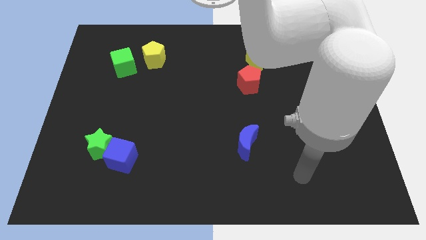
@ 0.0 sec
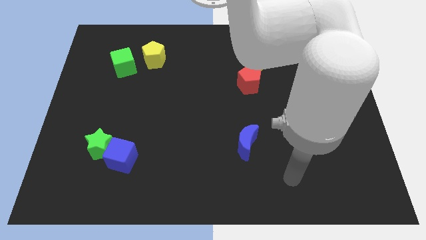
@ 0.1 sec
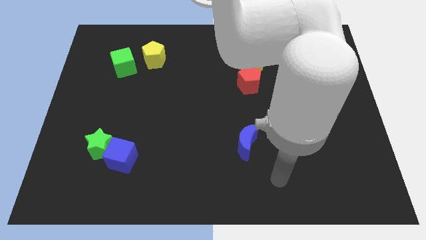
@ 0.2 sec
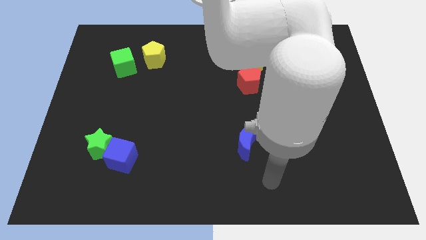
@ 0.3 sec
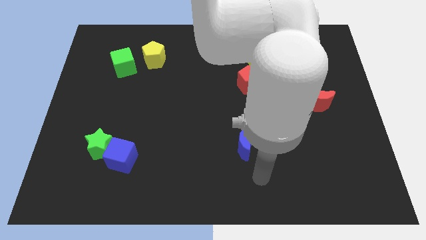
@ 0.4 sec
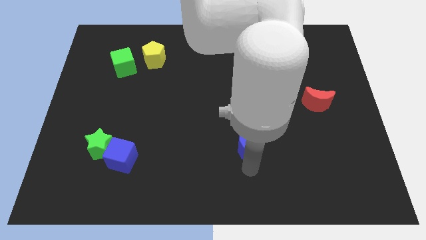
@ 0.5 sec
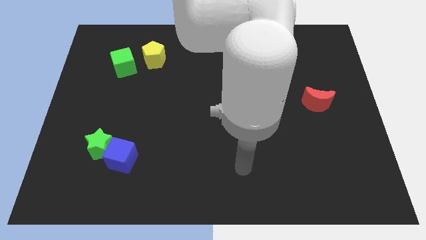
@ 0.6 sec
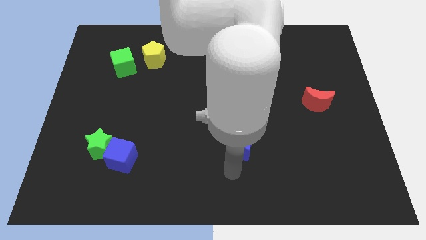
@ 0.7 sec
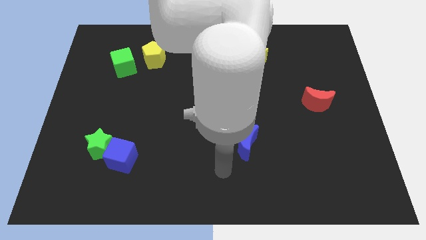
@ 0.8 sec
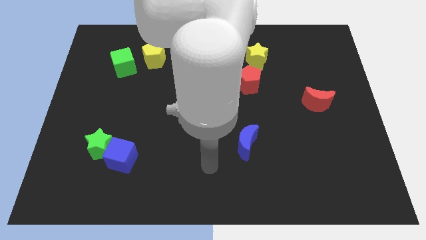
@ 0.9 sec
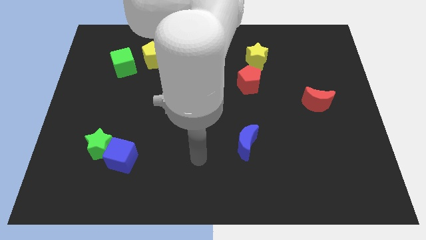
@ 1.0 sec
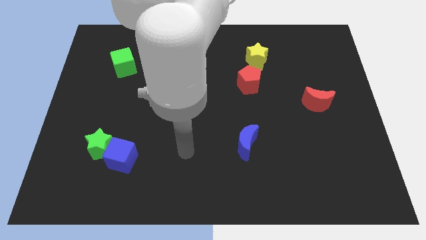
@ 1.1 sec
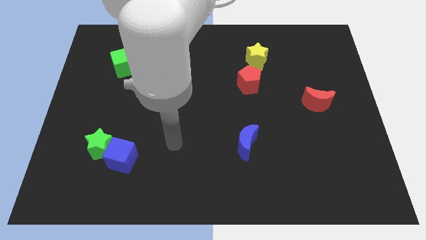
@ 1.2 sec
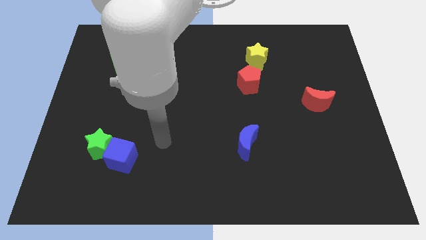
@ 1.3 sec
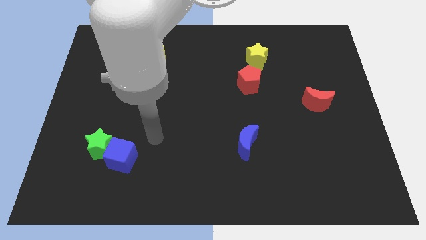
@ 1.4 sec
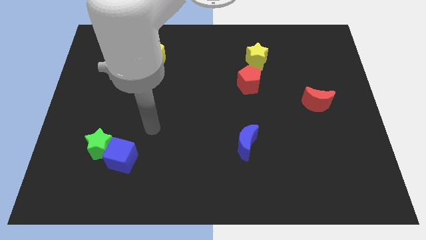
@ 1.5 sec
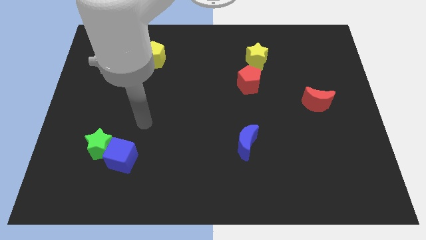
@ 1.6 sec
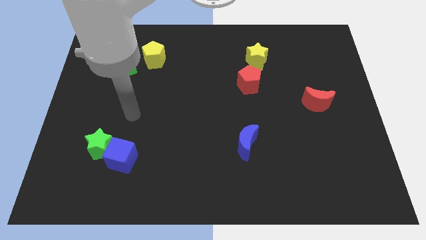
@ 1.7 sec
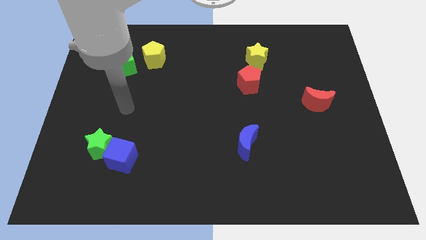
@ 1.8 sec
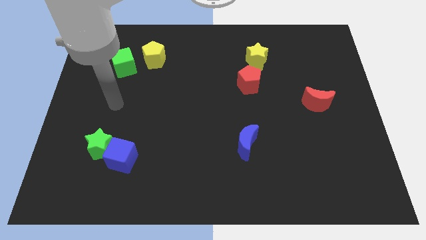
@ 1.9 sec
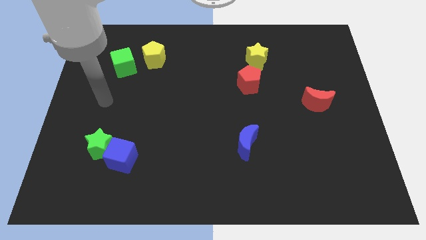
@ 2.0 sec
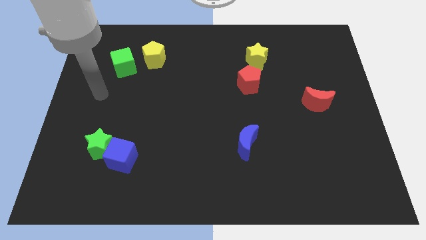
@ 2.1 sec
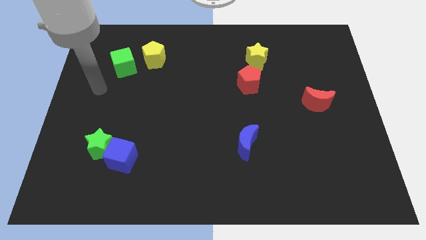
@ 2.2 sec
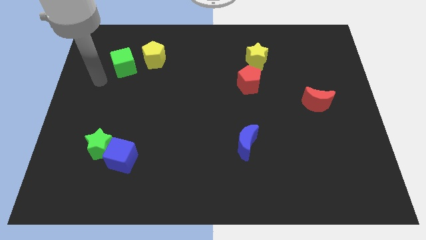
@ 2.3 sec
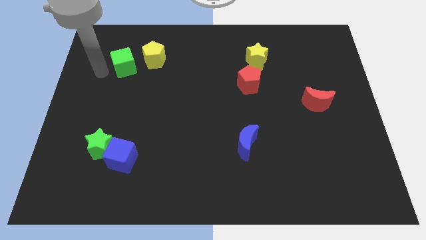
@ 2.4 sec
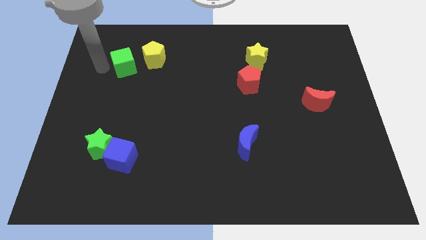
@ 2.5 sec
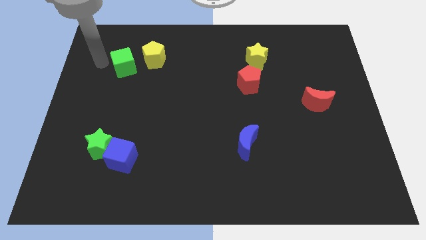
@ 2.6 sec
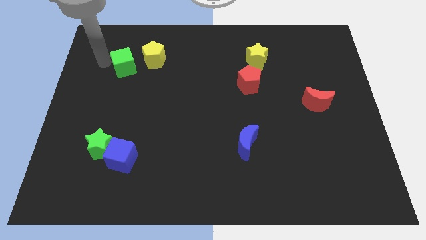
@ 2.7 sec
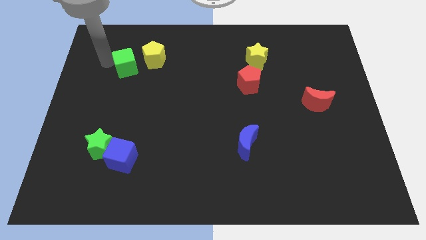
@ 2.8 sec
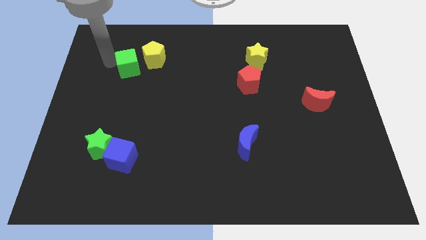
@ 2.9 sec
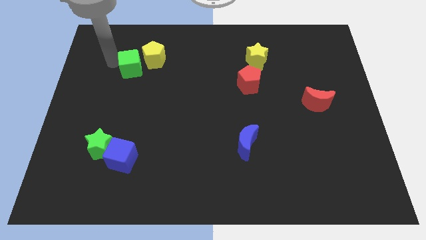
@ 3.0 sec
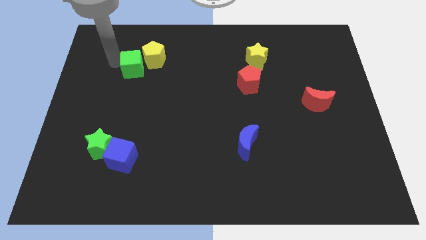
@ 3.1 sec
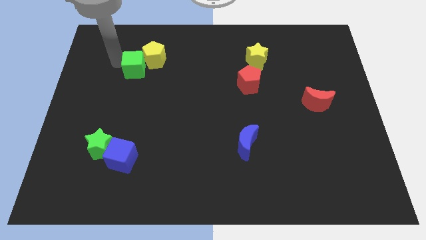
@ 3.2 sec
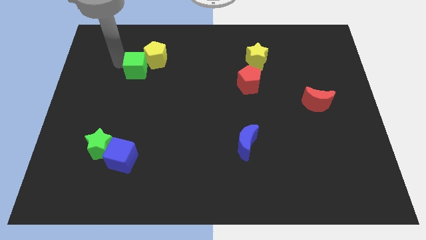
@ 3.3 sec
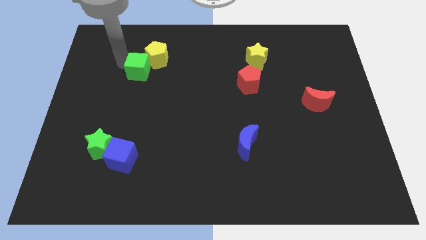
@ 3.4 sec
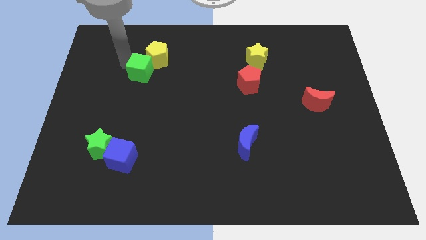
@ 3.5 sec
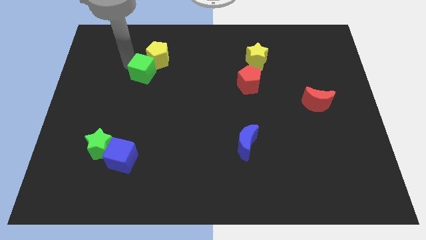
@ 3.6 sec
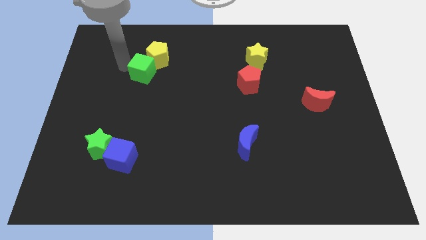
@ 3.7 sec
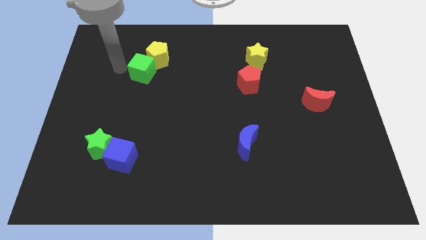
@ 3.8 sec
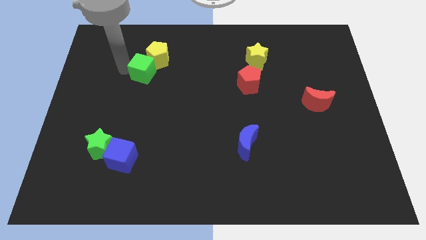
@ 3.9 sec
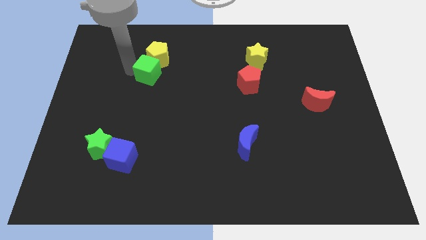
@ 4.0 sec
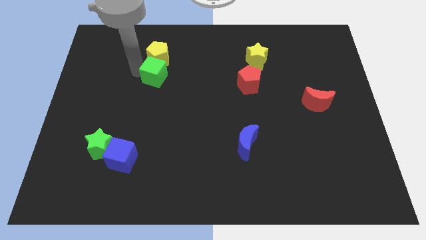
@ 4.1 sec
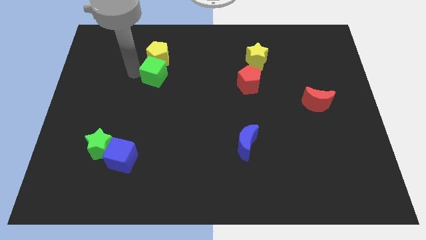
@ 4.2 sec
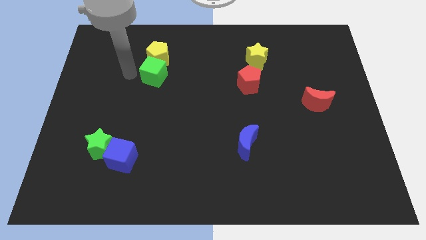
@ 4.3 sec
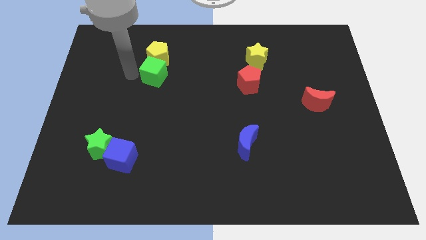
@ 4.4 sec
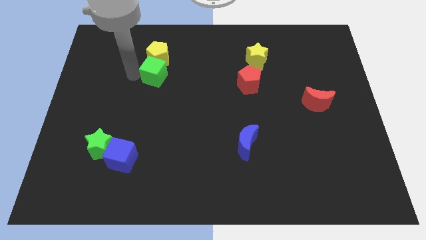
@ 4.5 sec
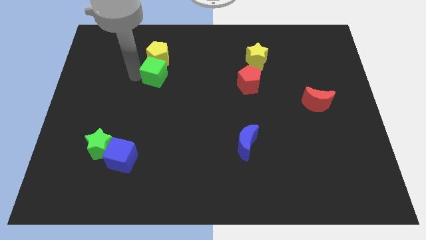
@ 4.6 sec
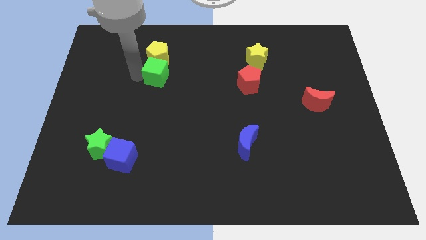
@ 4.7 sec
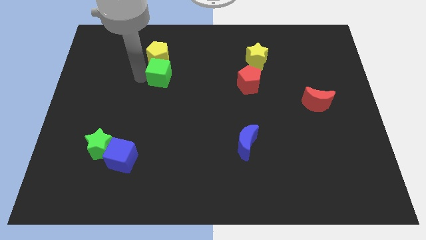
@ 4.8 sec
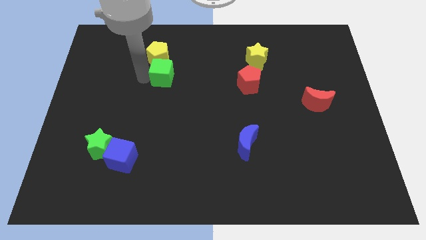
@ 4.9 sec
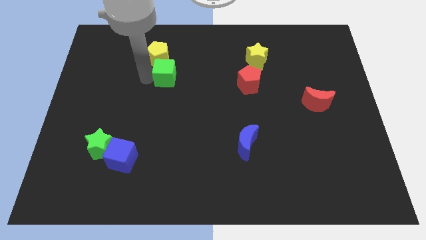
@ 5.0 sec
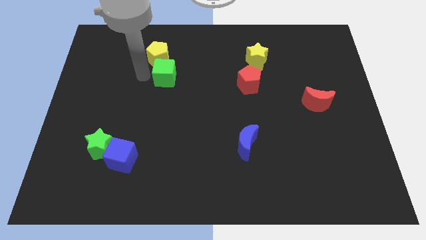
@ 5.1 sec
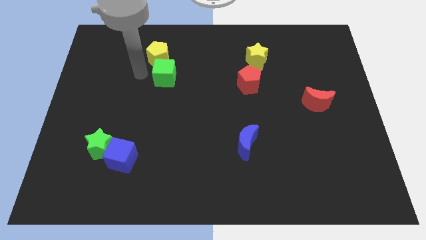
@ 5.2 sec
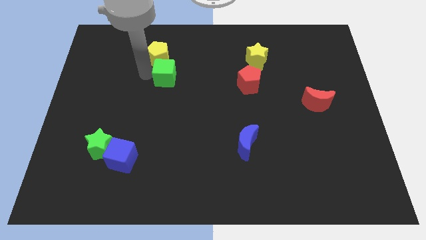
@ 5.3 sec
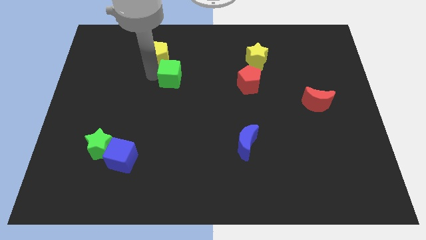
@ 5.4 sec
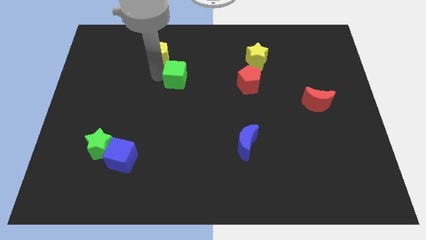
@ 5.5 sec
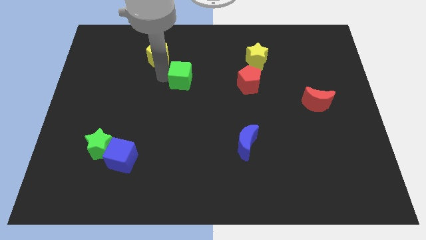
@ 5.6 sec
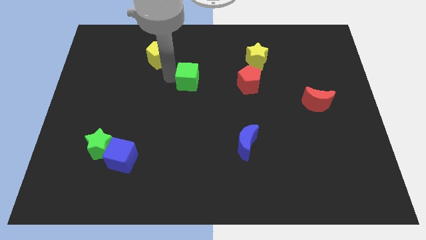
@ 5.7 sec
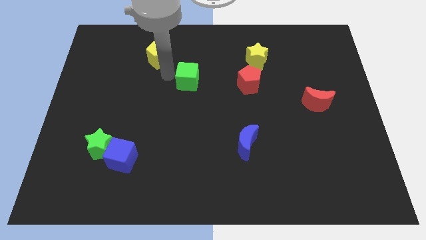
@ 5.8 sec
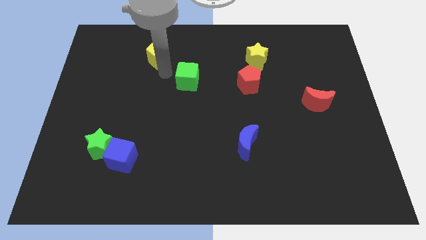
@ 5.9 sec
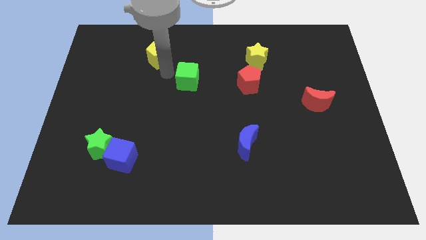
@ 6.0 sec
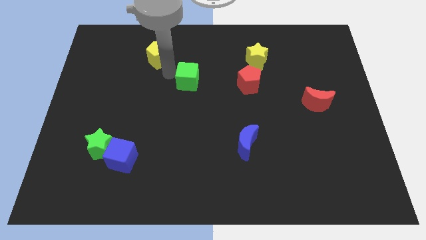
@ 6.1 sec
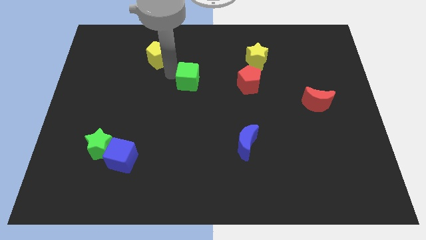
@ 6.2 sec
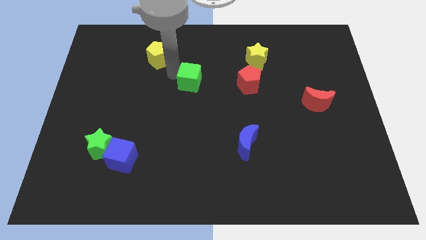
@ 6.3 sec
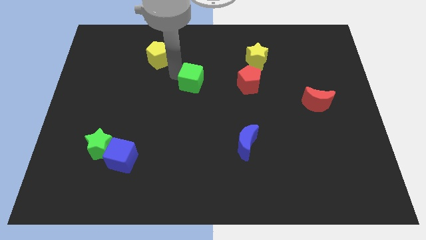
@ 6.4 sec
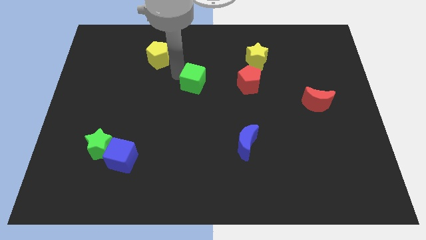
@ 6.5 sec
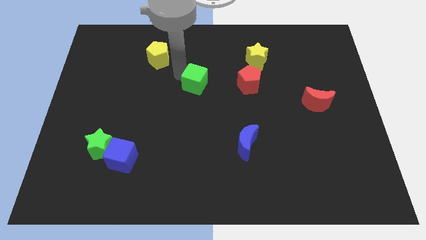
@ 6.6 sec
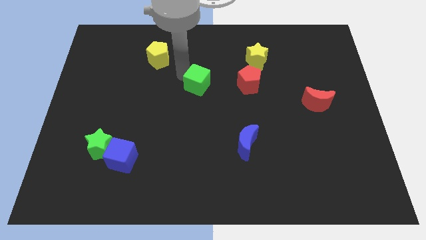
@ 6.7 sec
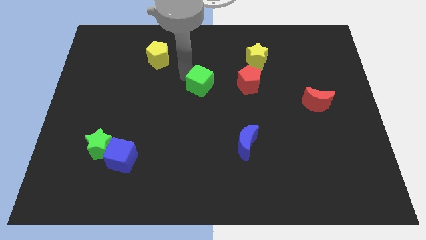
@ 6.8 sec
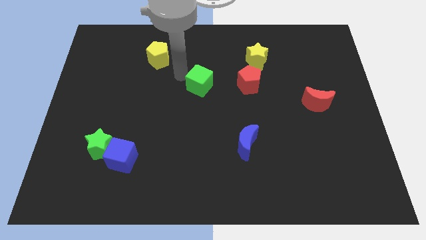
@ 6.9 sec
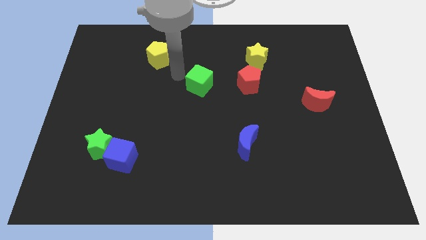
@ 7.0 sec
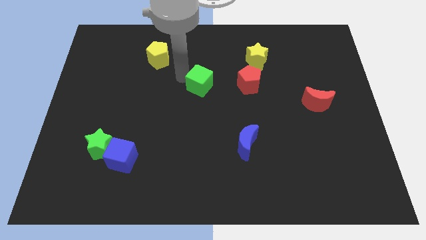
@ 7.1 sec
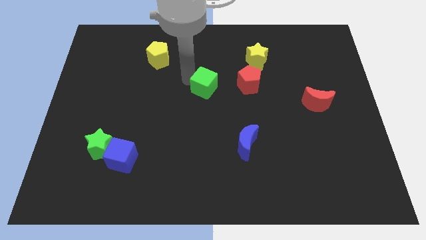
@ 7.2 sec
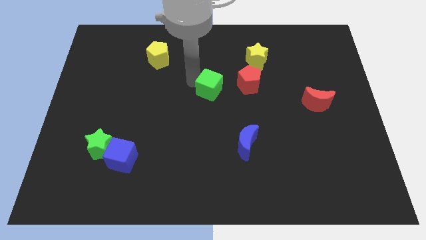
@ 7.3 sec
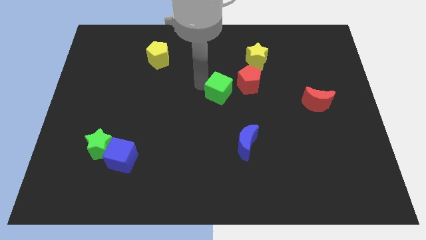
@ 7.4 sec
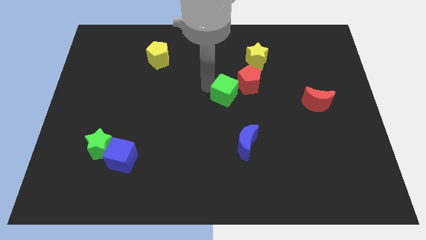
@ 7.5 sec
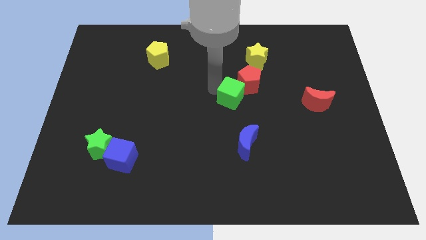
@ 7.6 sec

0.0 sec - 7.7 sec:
push the green cube to the top side of the blue moon
